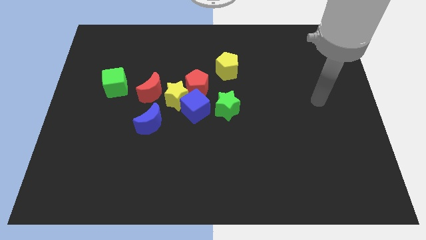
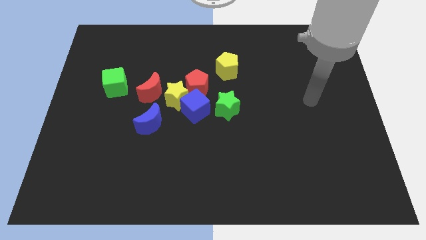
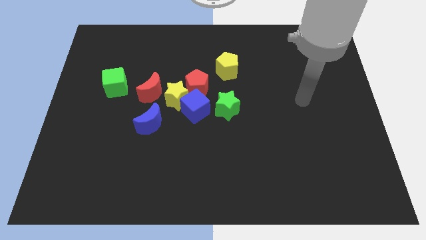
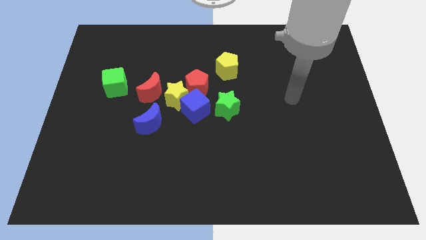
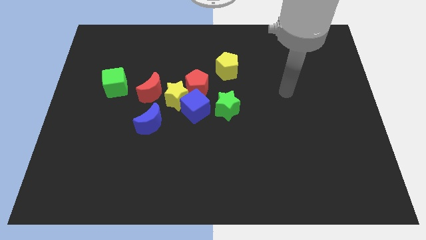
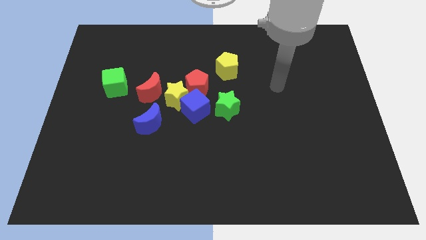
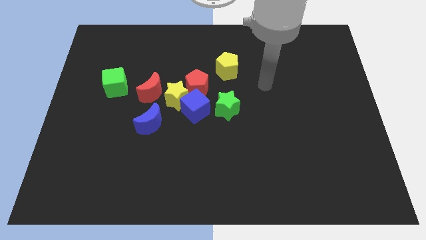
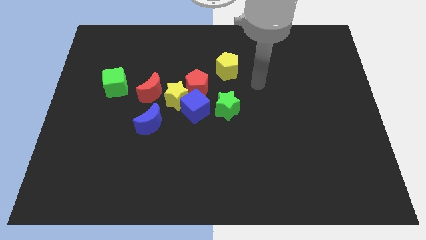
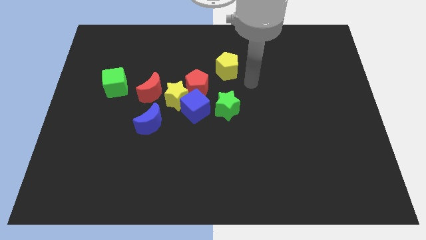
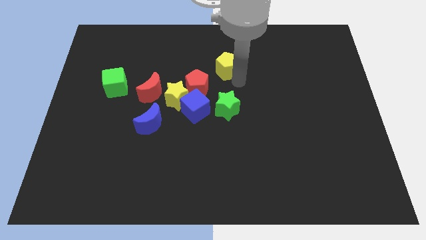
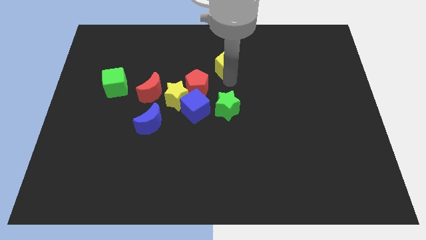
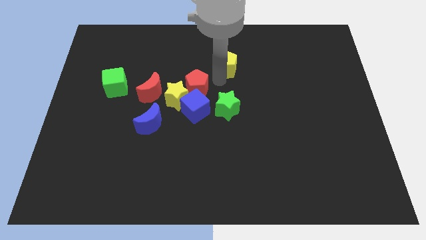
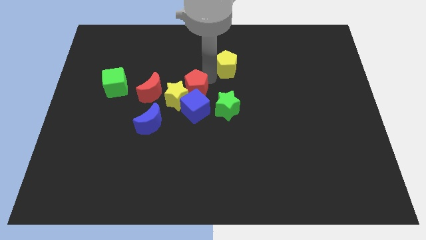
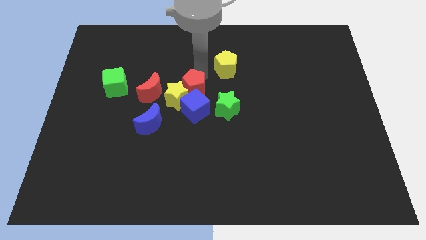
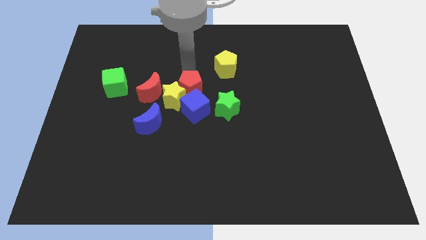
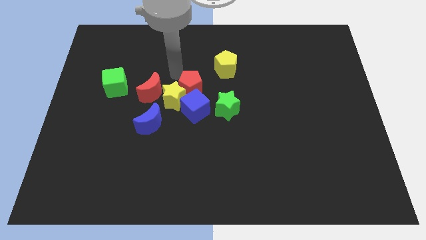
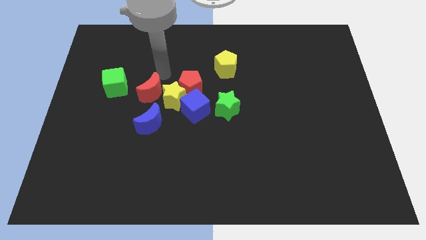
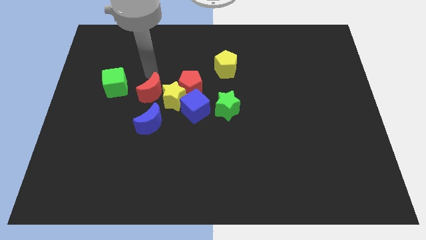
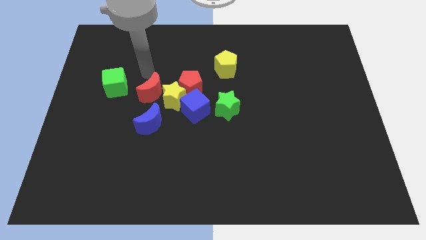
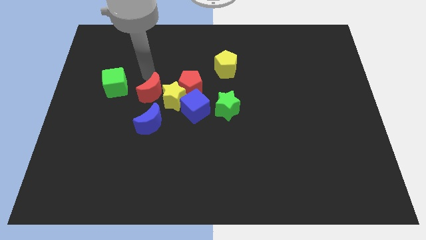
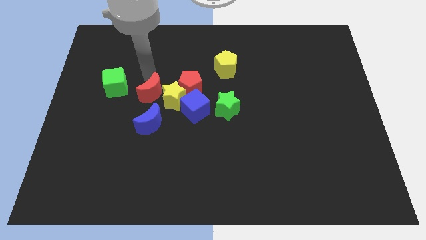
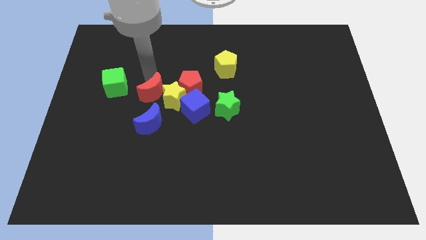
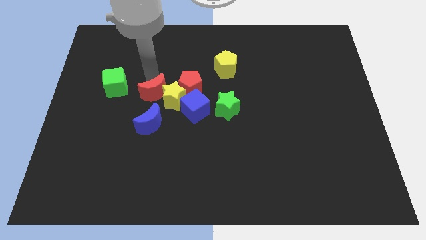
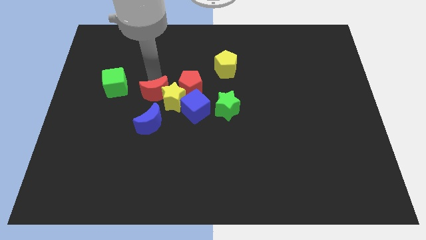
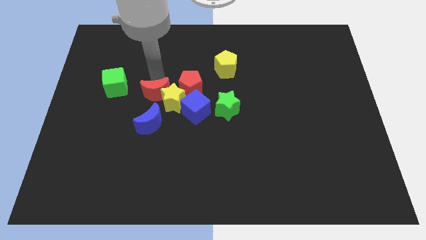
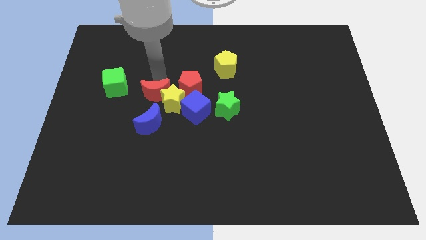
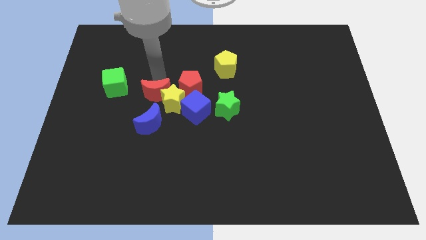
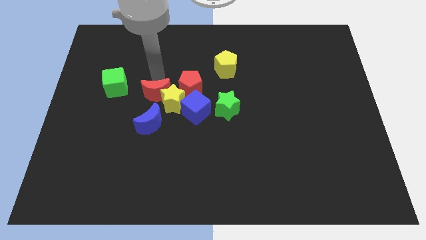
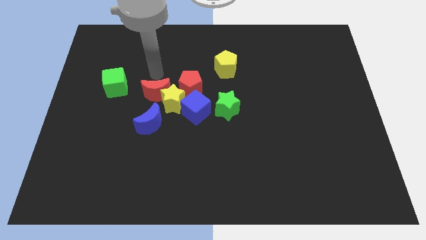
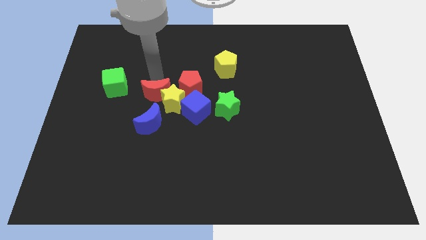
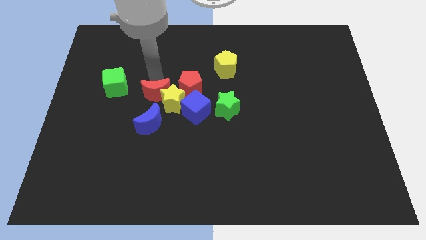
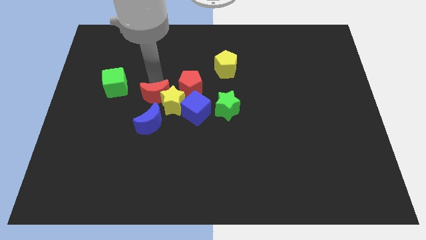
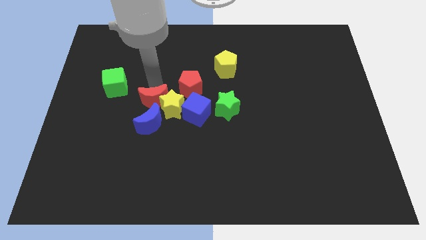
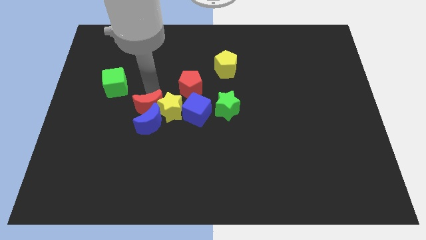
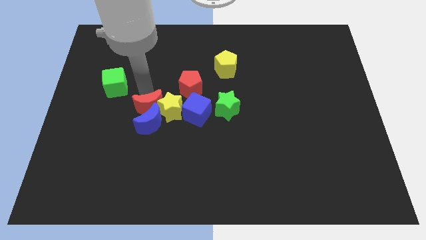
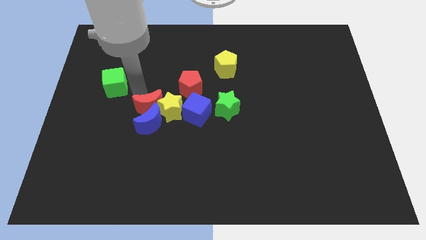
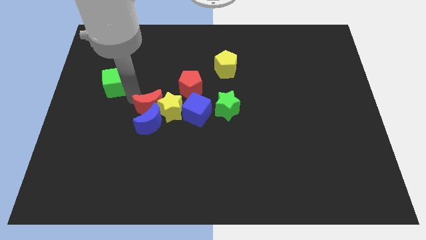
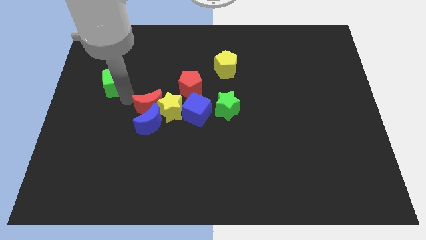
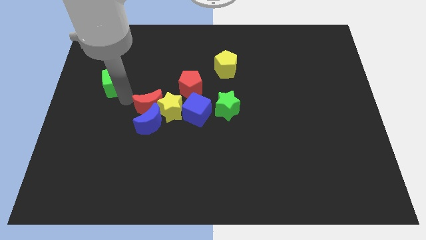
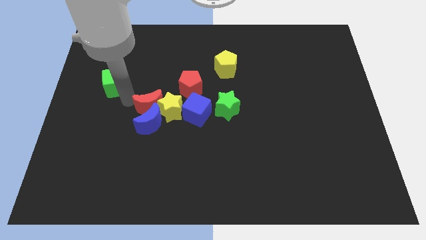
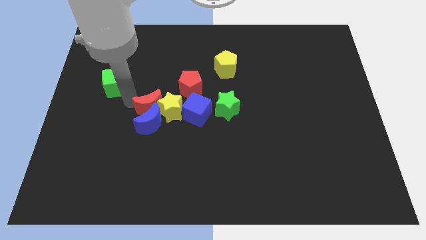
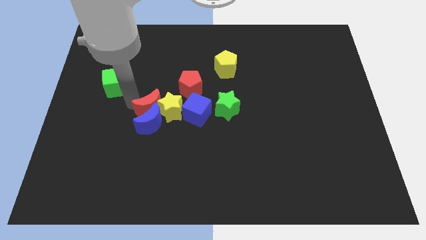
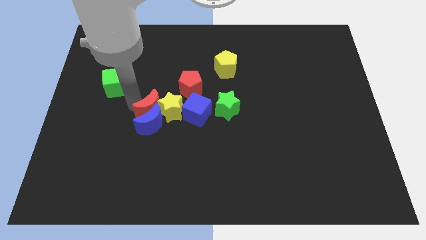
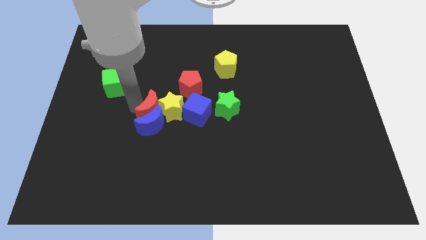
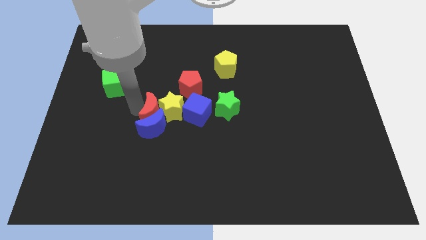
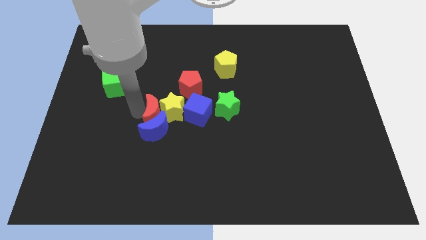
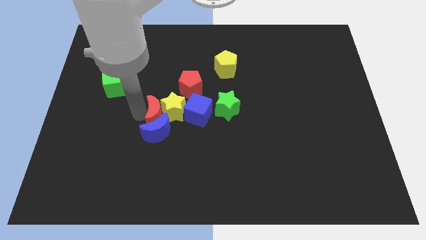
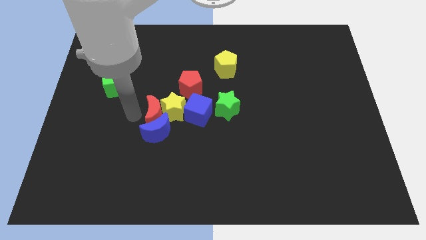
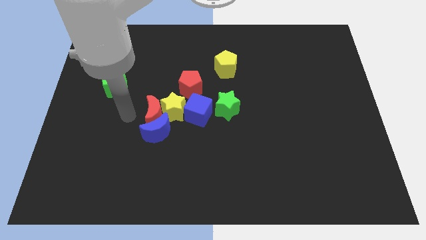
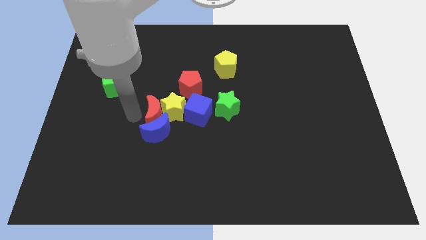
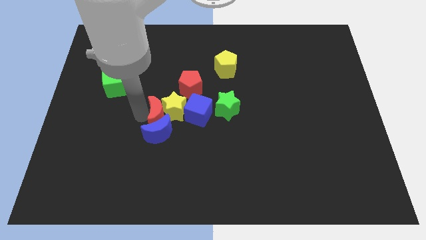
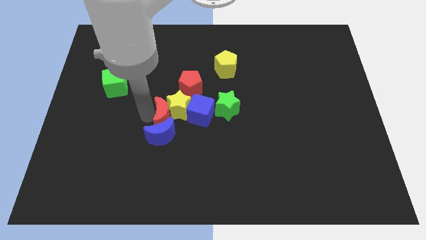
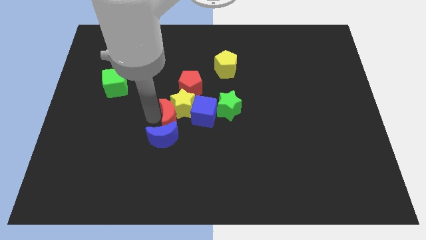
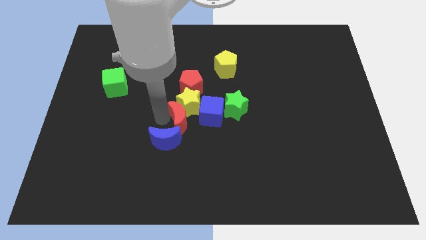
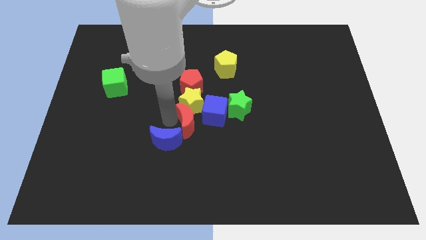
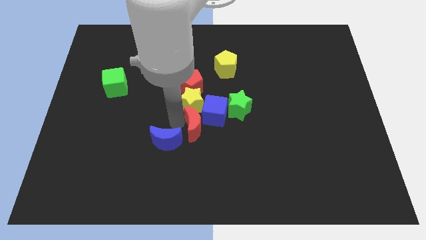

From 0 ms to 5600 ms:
put the red moon to the blue cube

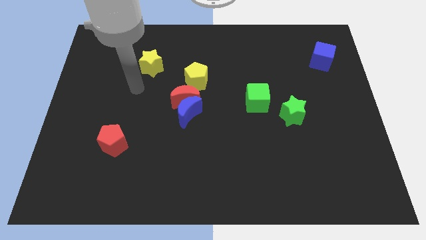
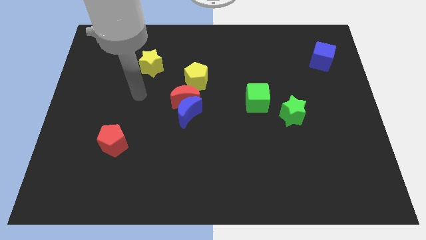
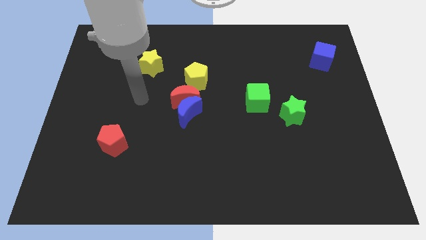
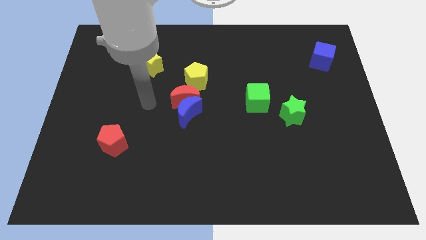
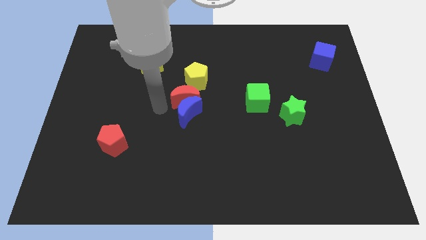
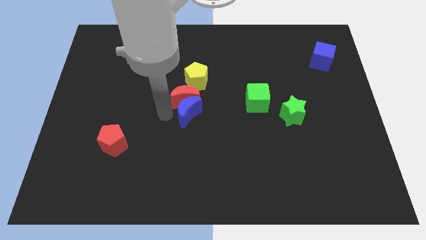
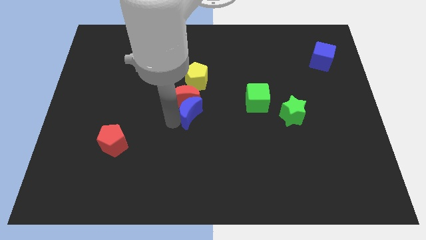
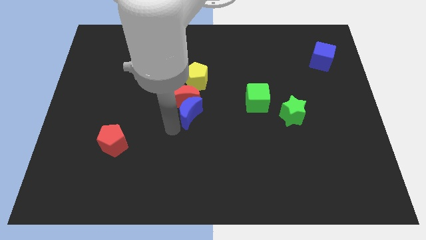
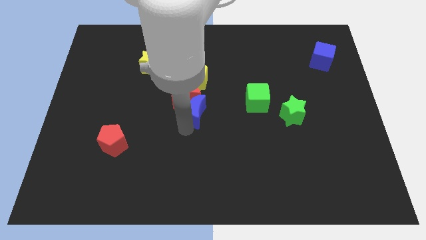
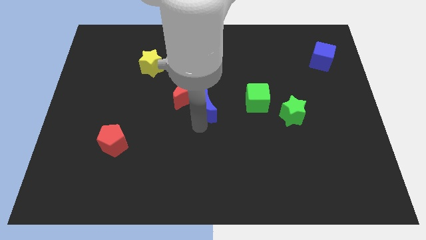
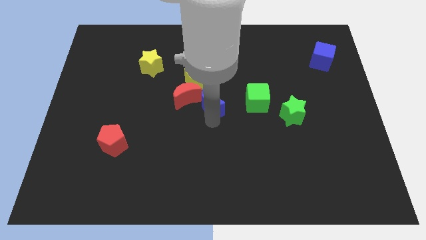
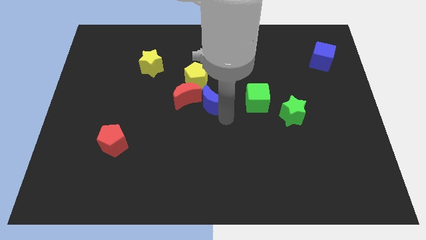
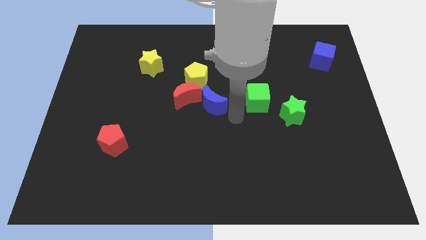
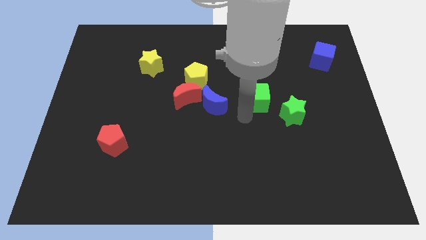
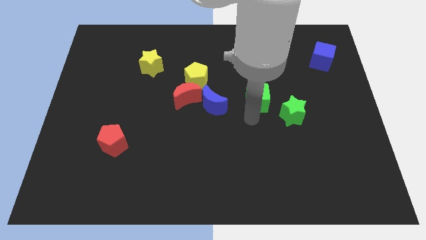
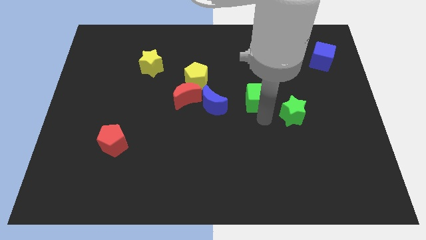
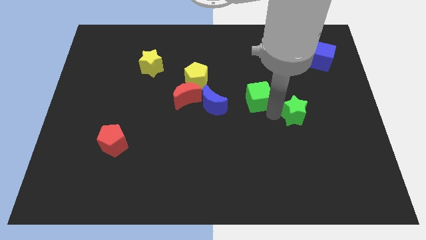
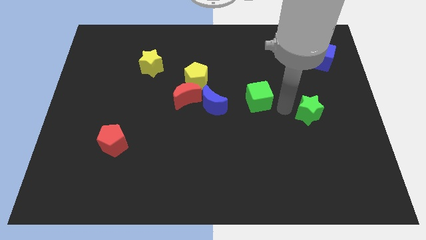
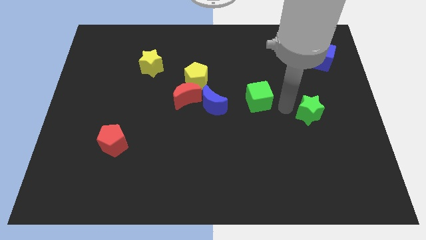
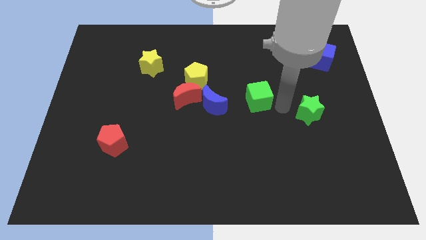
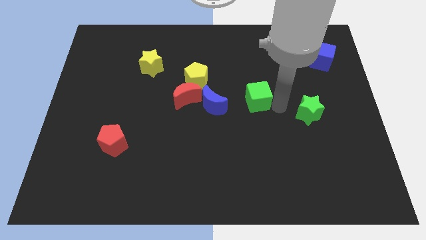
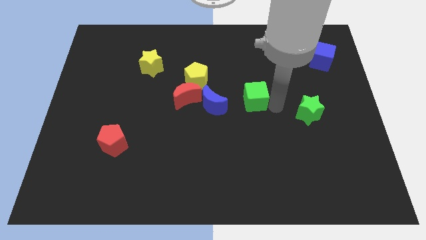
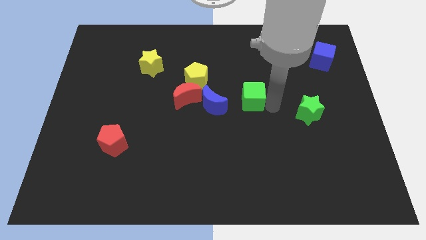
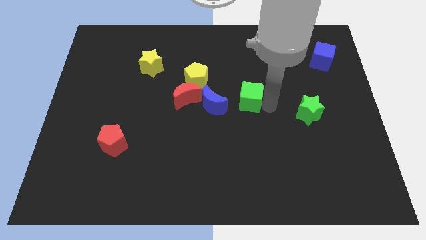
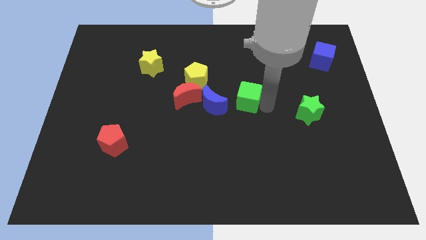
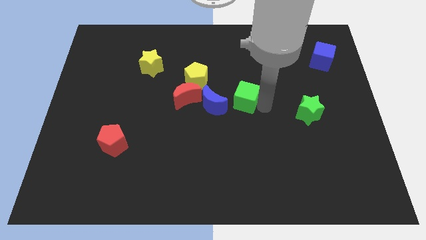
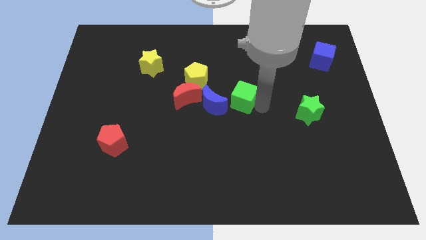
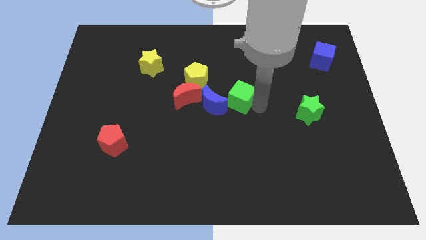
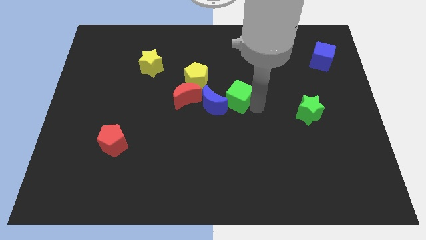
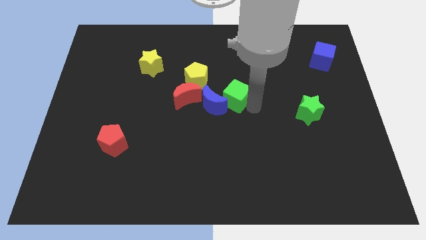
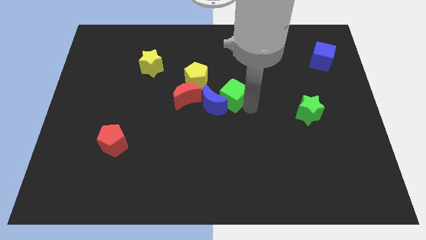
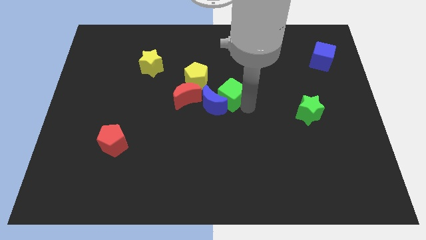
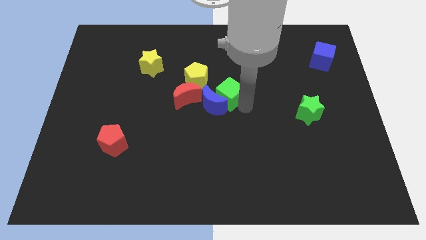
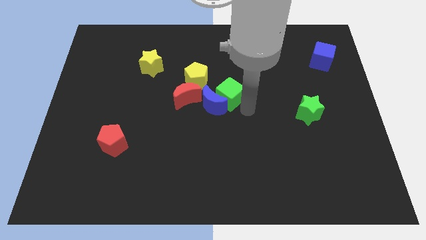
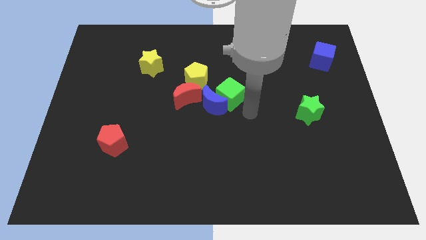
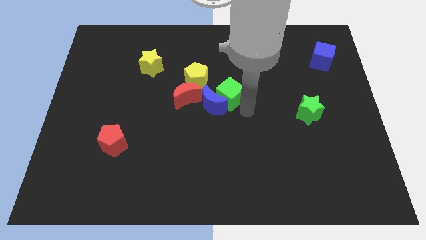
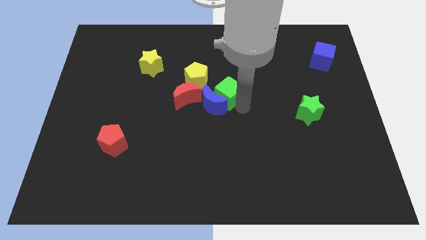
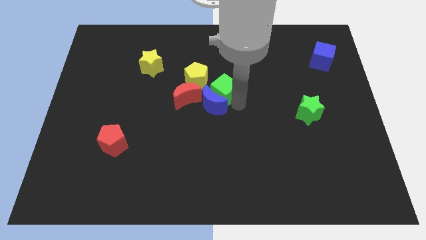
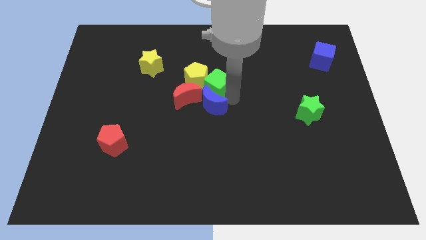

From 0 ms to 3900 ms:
slide the green cube to the yellow pentagon
